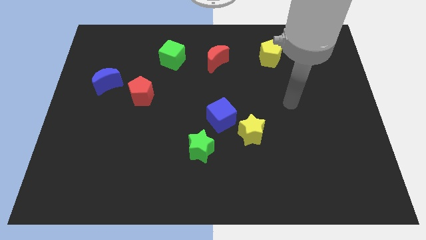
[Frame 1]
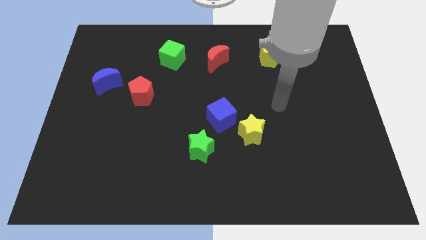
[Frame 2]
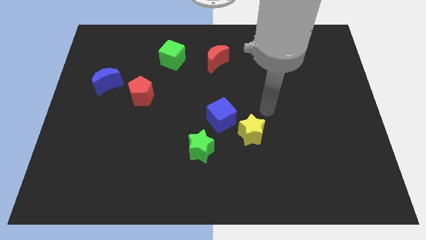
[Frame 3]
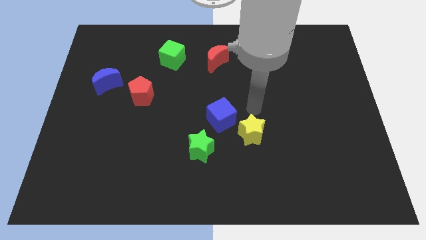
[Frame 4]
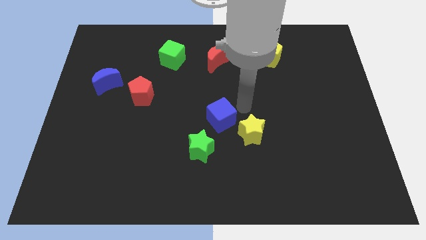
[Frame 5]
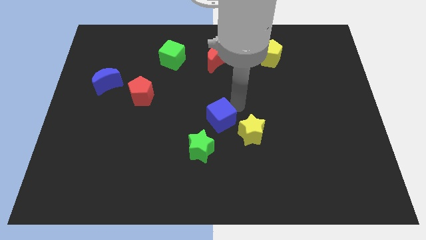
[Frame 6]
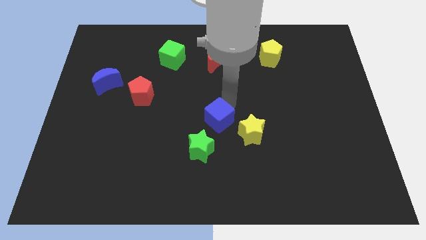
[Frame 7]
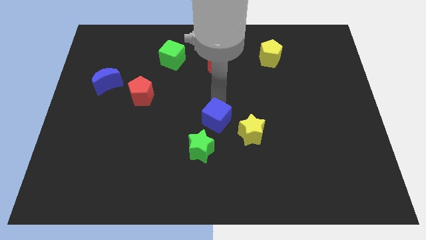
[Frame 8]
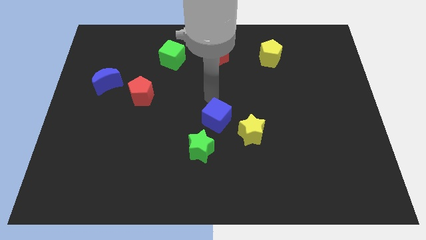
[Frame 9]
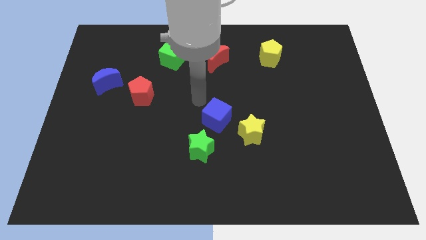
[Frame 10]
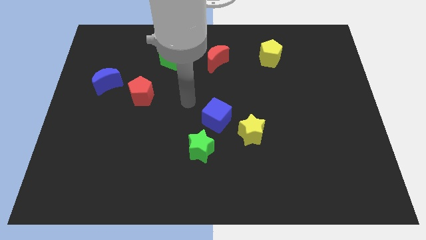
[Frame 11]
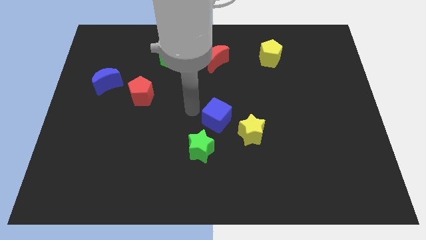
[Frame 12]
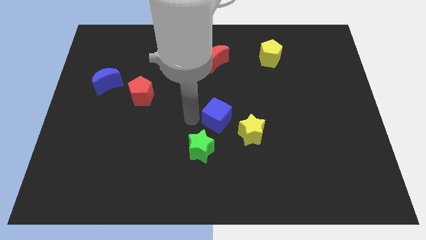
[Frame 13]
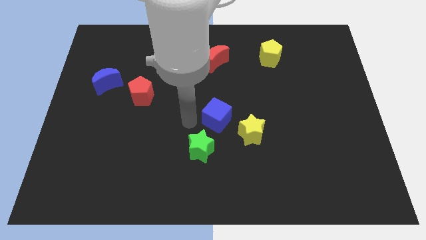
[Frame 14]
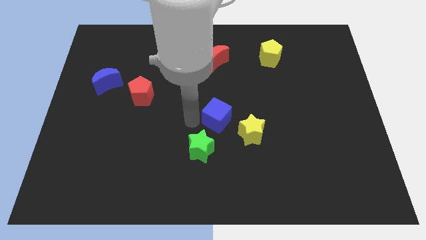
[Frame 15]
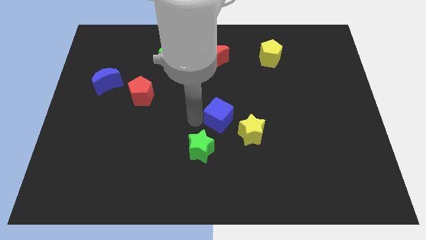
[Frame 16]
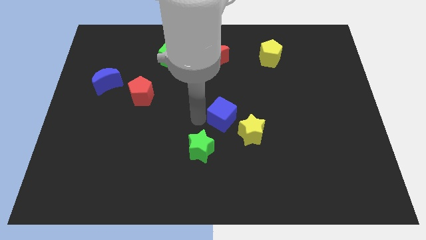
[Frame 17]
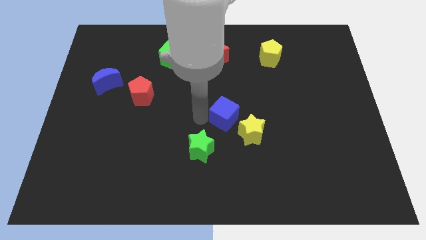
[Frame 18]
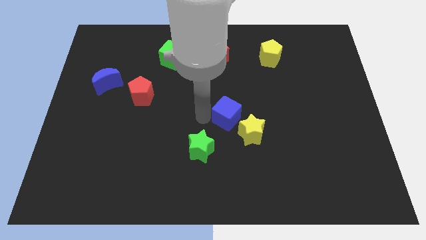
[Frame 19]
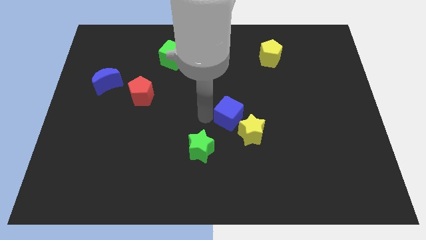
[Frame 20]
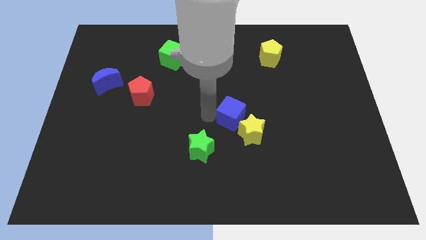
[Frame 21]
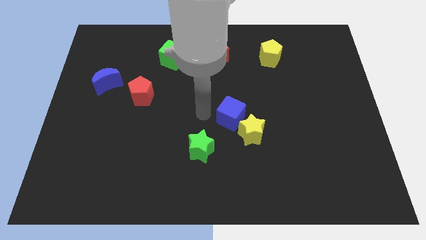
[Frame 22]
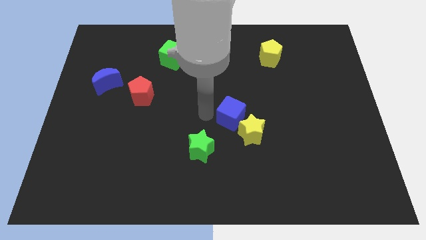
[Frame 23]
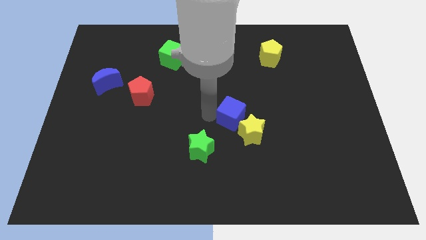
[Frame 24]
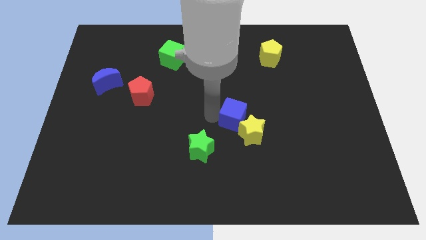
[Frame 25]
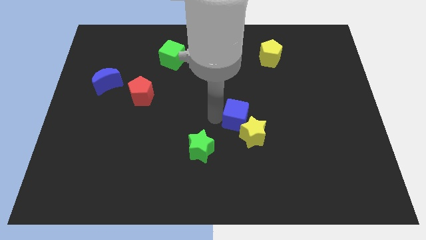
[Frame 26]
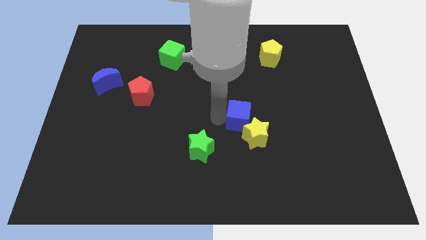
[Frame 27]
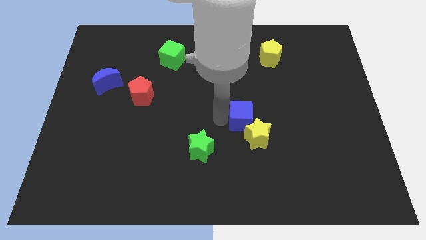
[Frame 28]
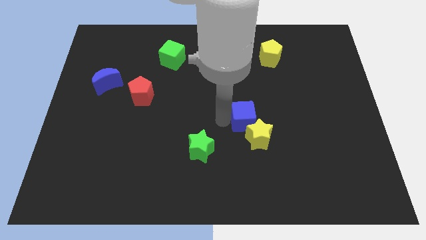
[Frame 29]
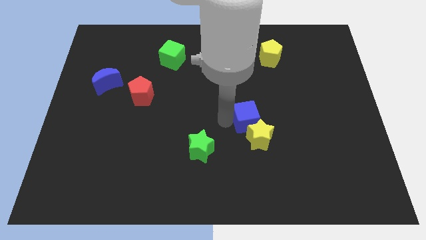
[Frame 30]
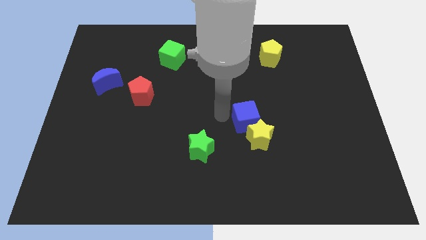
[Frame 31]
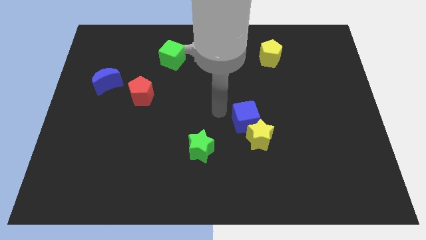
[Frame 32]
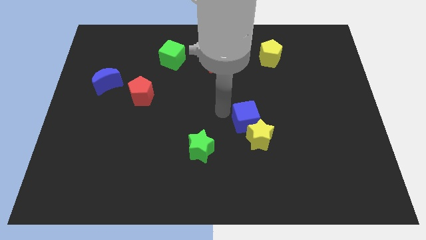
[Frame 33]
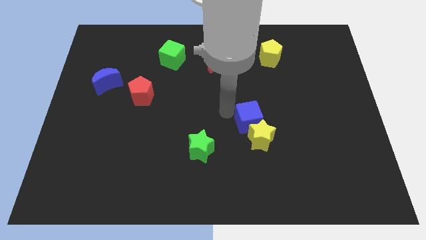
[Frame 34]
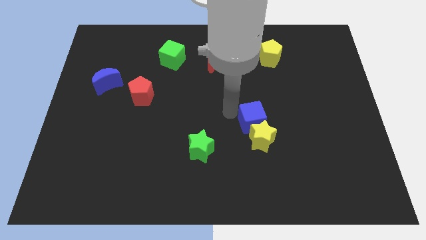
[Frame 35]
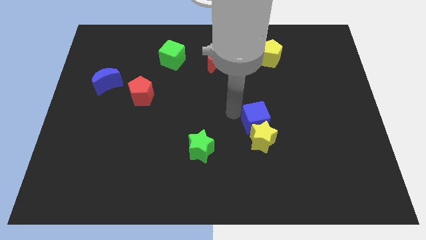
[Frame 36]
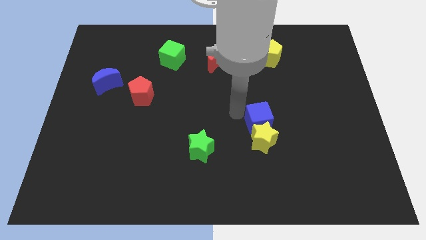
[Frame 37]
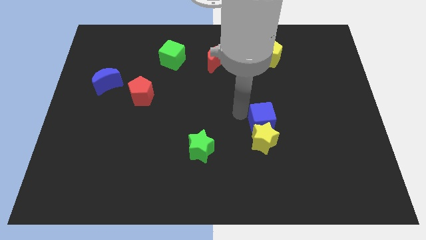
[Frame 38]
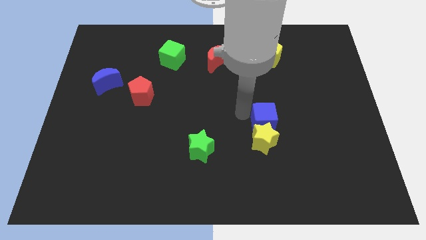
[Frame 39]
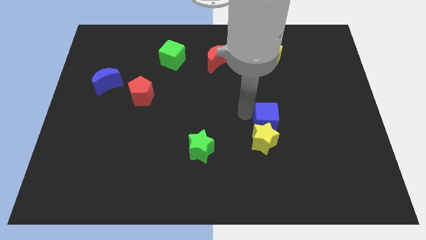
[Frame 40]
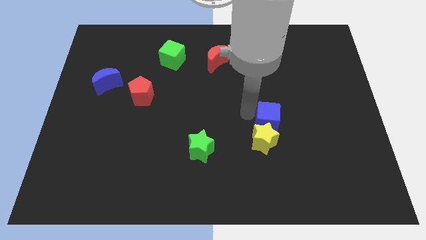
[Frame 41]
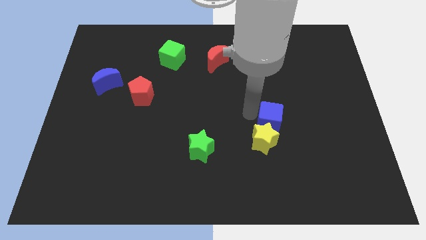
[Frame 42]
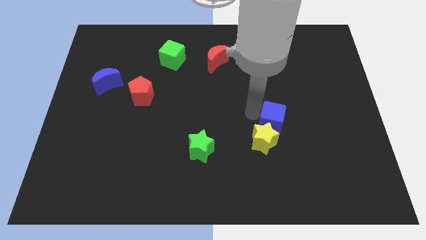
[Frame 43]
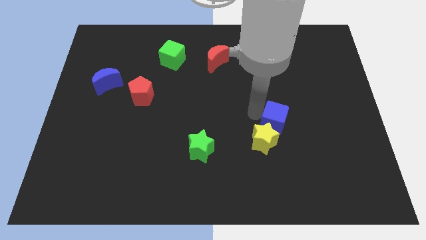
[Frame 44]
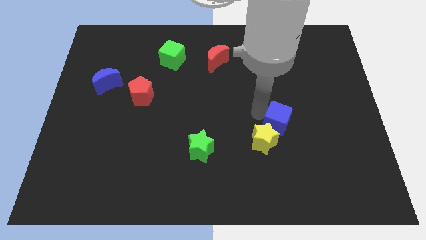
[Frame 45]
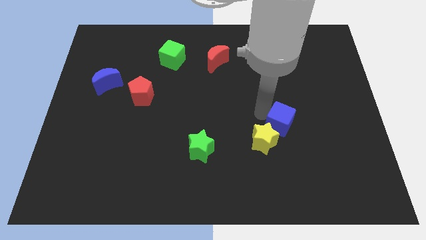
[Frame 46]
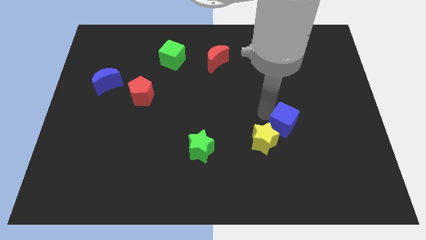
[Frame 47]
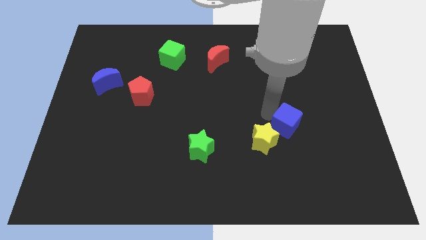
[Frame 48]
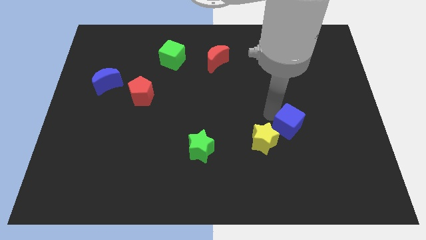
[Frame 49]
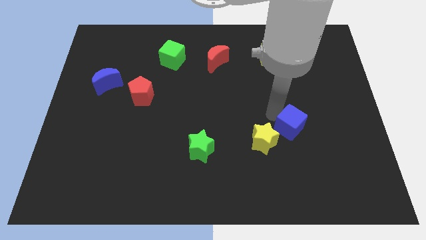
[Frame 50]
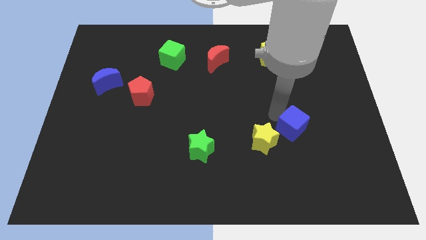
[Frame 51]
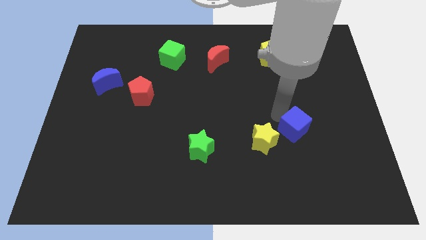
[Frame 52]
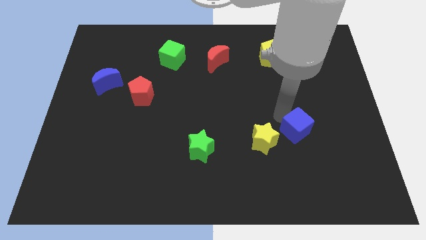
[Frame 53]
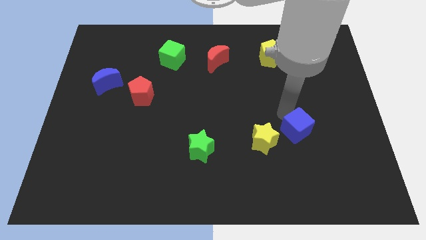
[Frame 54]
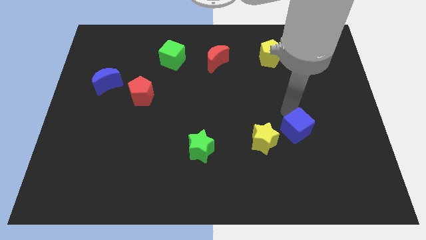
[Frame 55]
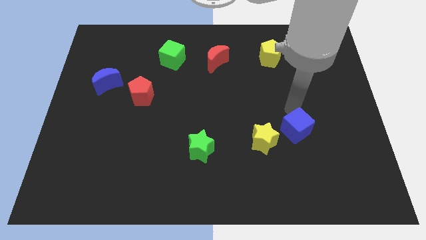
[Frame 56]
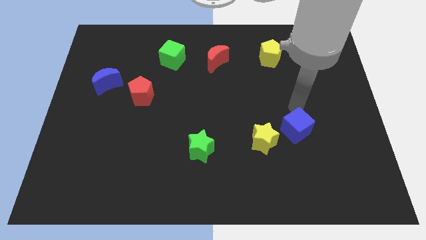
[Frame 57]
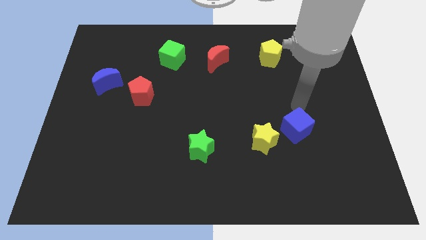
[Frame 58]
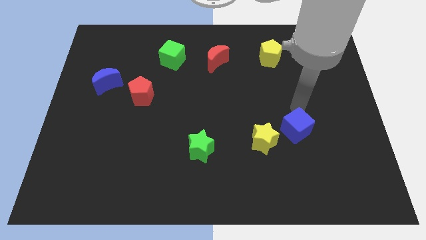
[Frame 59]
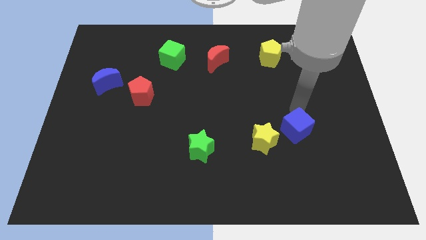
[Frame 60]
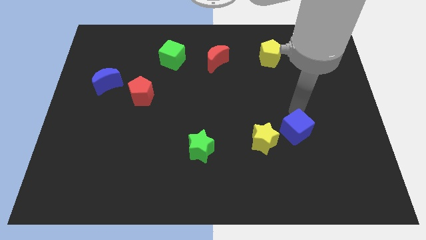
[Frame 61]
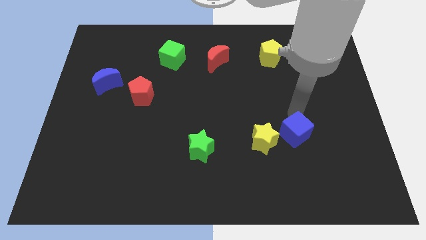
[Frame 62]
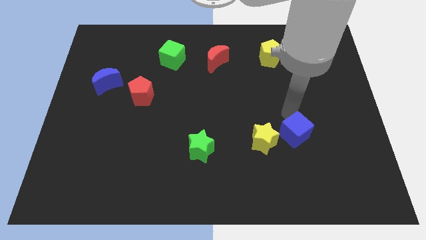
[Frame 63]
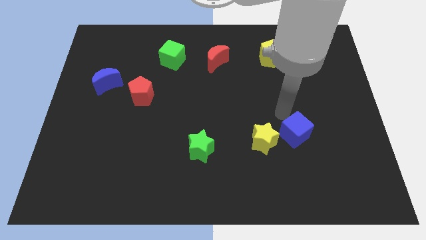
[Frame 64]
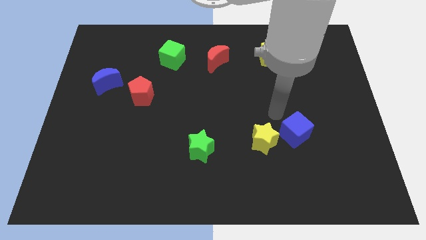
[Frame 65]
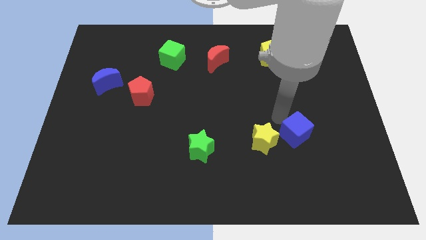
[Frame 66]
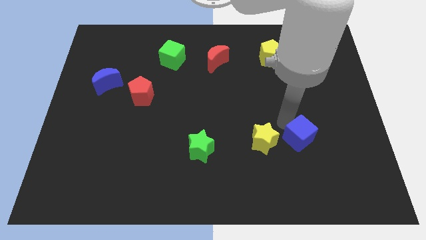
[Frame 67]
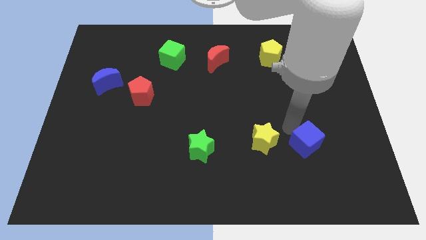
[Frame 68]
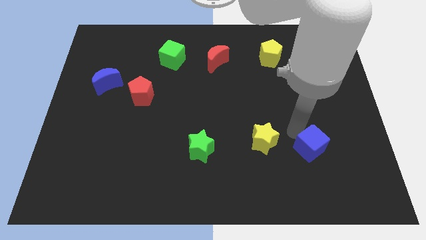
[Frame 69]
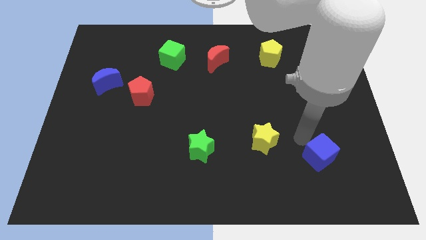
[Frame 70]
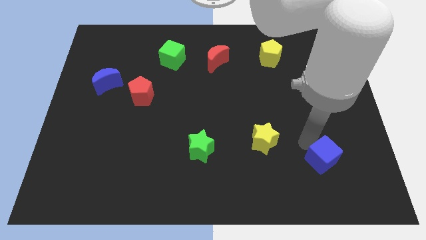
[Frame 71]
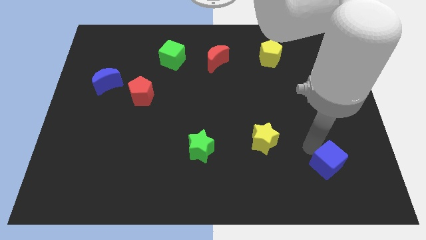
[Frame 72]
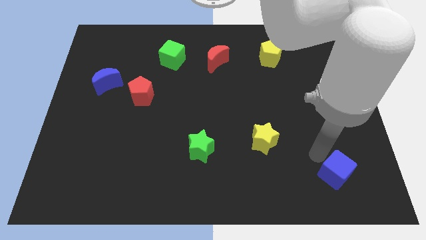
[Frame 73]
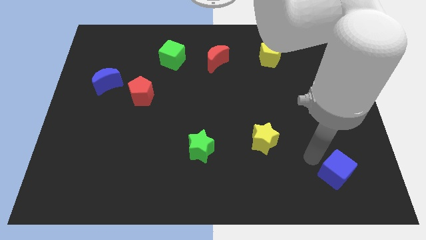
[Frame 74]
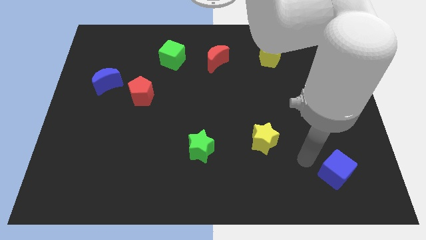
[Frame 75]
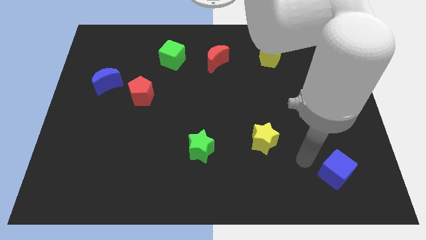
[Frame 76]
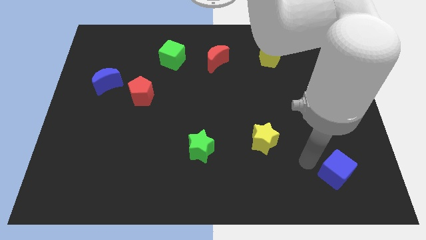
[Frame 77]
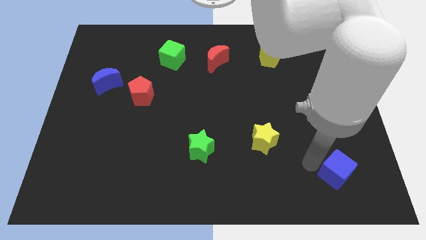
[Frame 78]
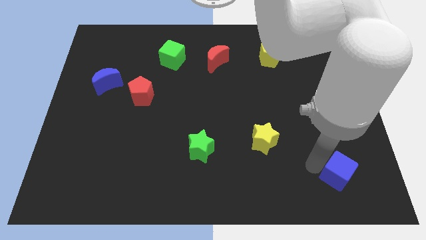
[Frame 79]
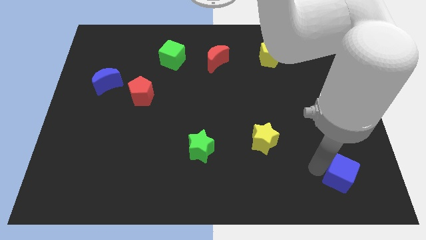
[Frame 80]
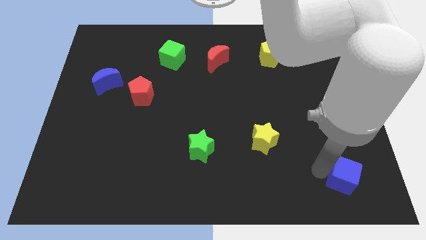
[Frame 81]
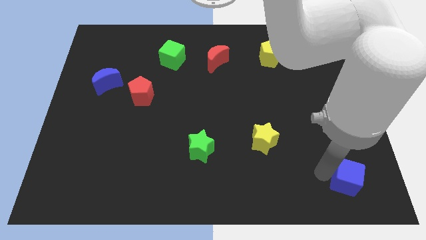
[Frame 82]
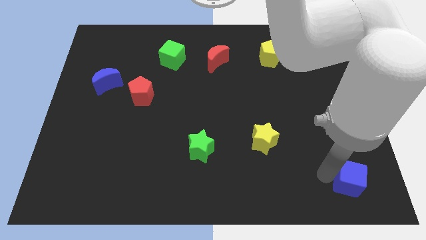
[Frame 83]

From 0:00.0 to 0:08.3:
push the blue cube to the lower right corner
